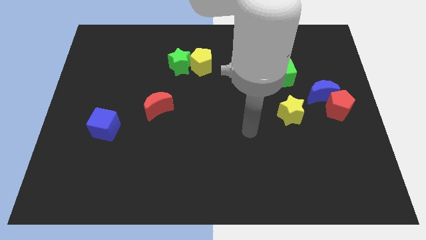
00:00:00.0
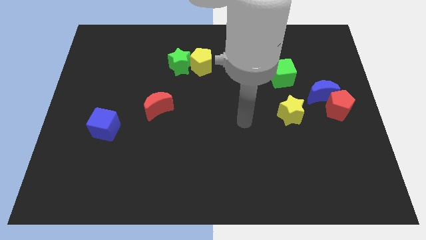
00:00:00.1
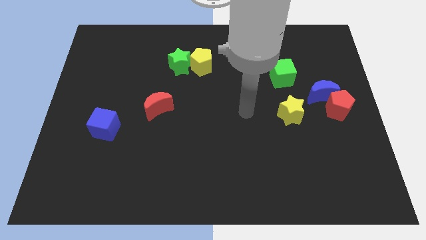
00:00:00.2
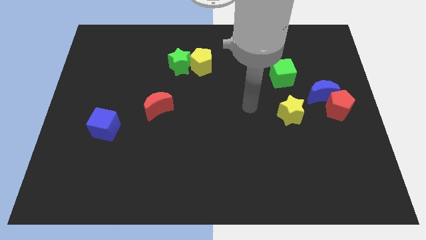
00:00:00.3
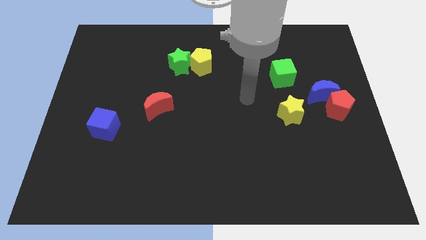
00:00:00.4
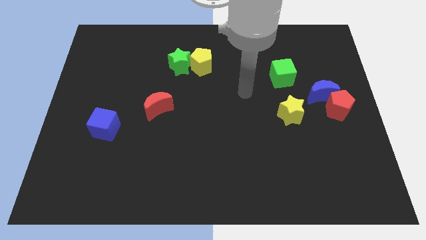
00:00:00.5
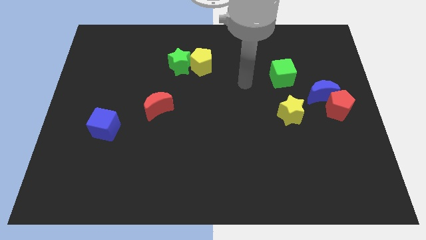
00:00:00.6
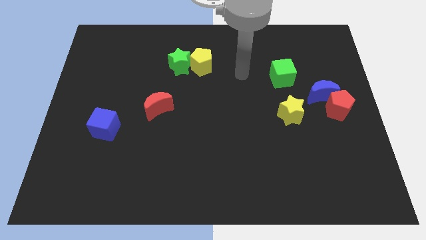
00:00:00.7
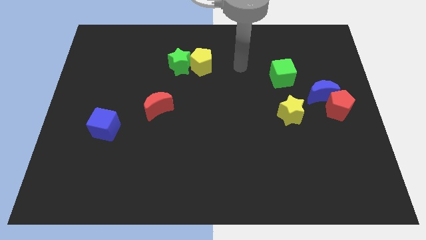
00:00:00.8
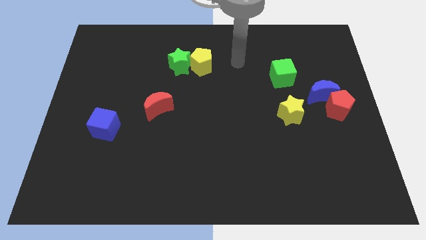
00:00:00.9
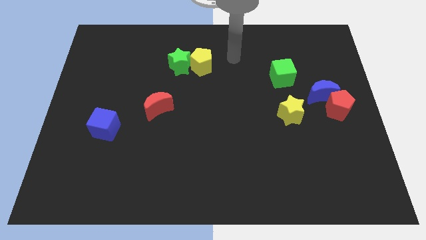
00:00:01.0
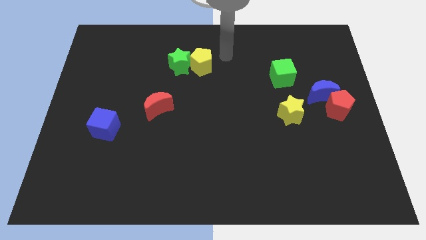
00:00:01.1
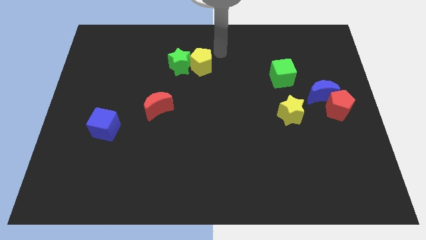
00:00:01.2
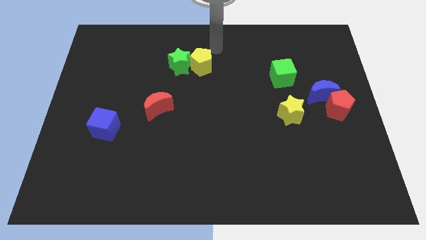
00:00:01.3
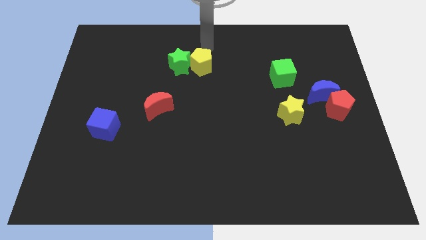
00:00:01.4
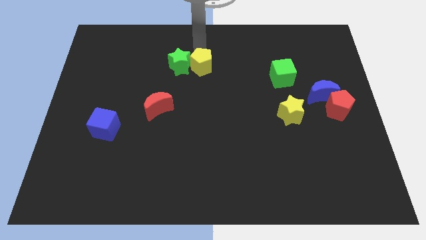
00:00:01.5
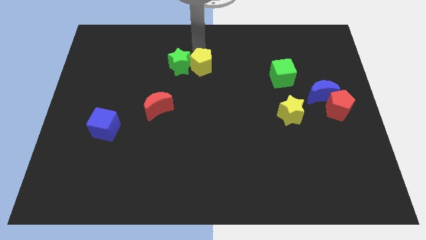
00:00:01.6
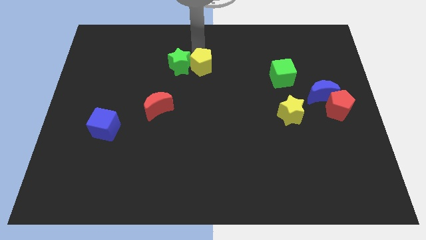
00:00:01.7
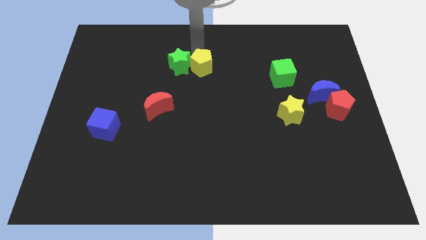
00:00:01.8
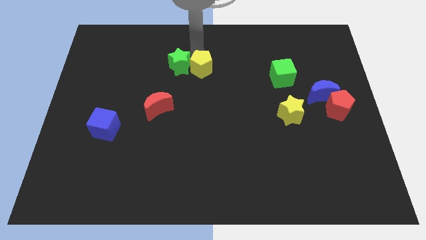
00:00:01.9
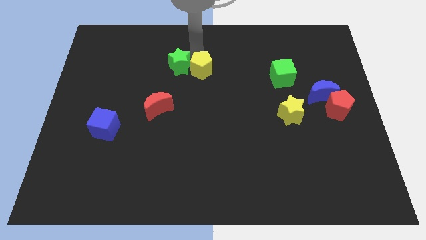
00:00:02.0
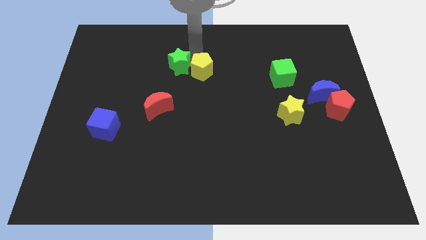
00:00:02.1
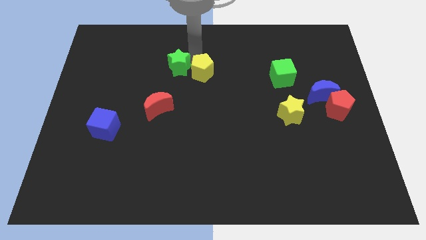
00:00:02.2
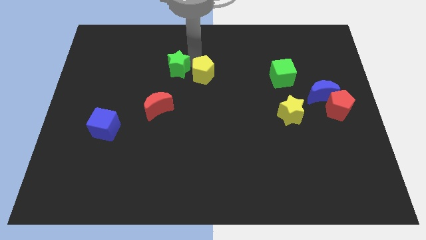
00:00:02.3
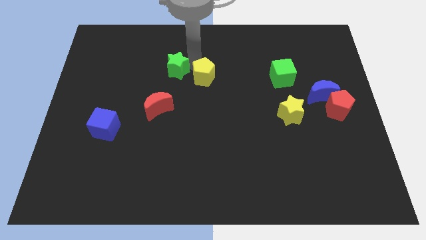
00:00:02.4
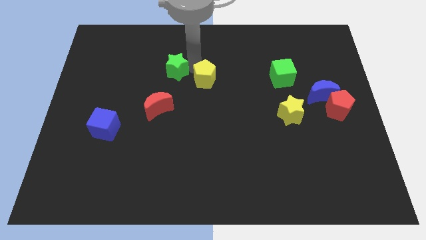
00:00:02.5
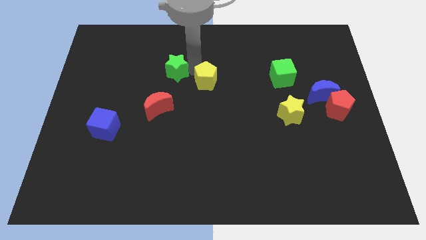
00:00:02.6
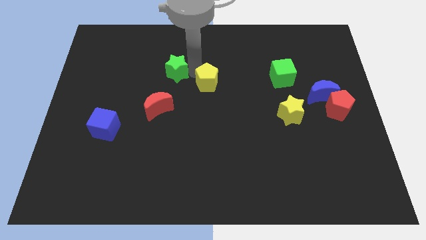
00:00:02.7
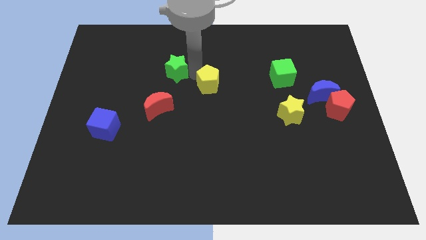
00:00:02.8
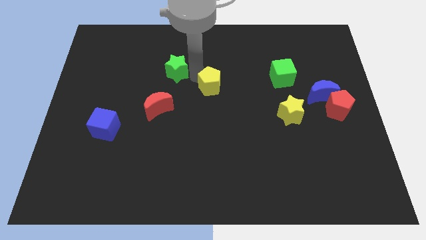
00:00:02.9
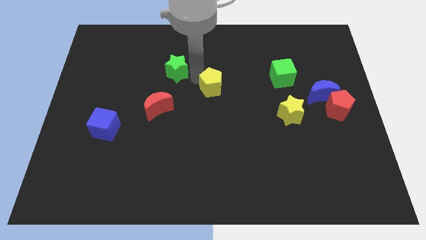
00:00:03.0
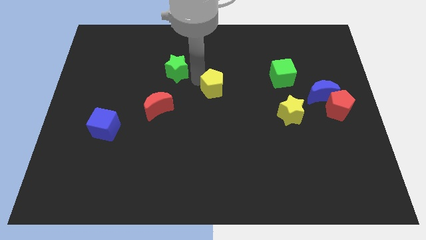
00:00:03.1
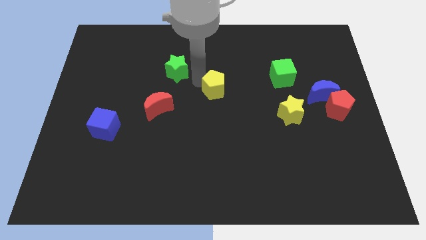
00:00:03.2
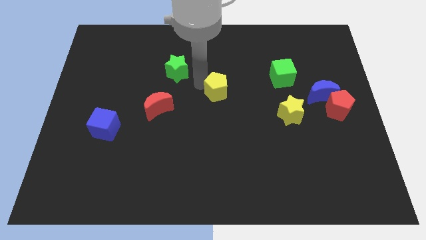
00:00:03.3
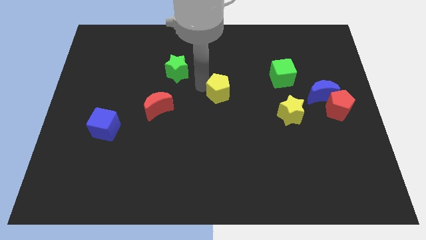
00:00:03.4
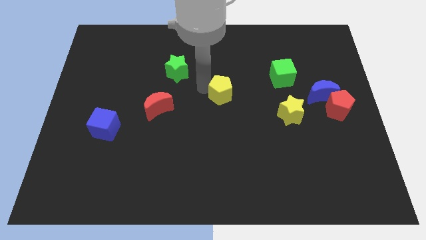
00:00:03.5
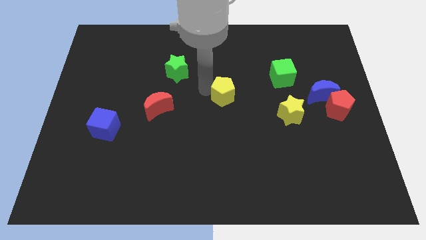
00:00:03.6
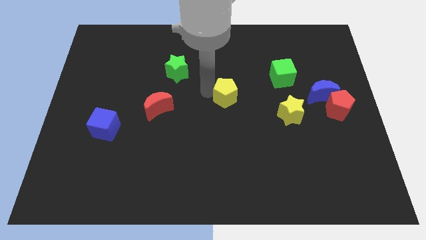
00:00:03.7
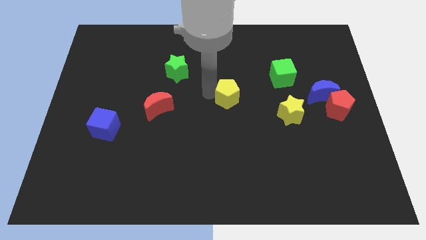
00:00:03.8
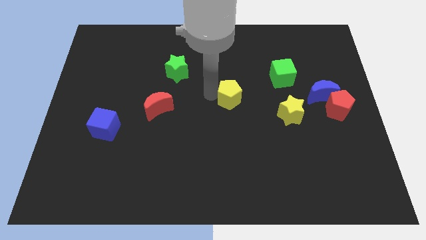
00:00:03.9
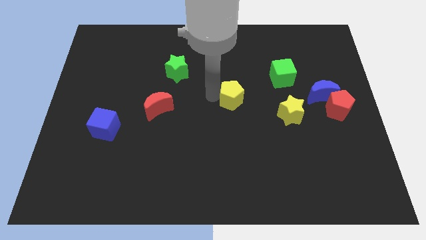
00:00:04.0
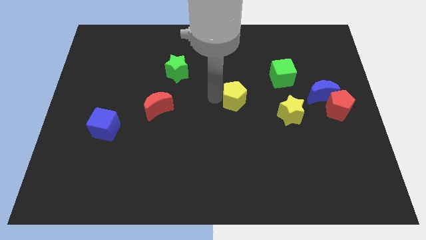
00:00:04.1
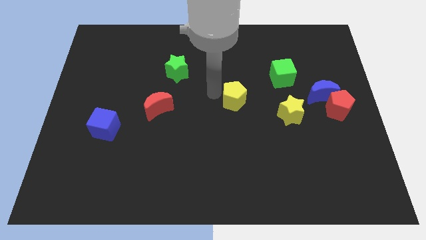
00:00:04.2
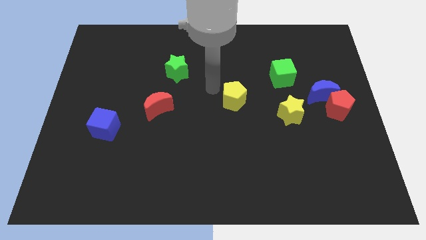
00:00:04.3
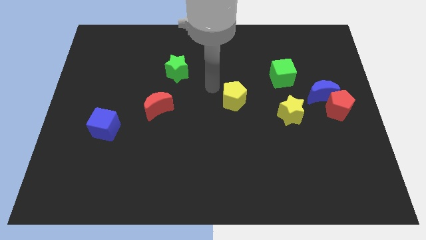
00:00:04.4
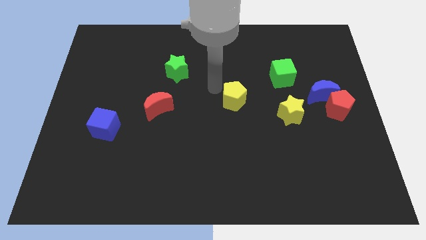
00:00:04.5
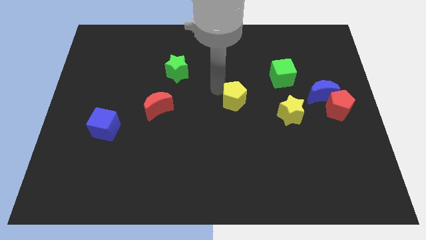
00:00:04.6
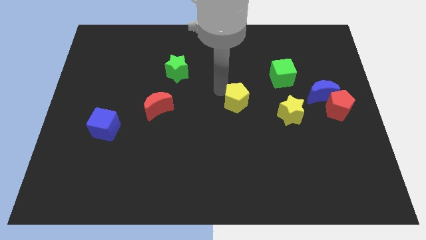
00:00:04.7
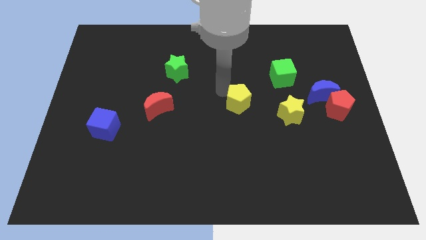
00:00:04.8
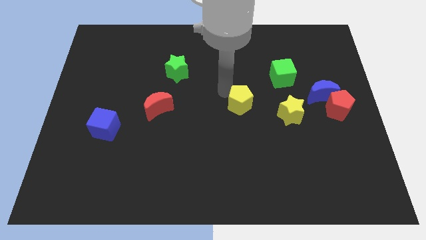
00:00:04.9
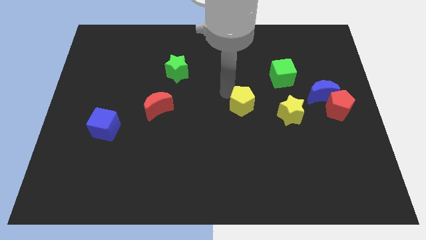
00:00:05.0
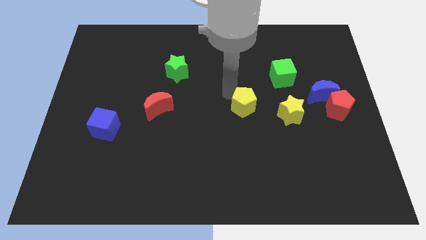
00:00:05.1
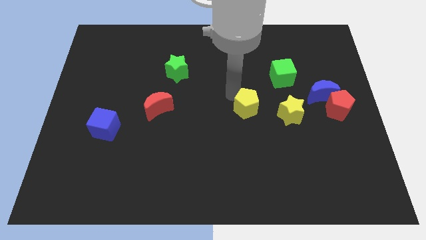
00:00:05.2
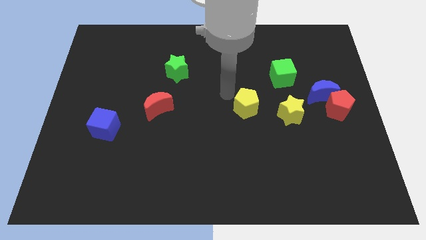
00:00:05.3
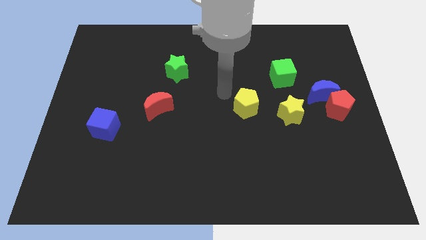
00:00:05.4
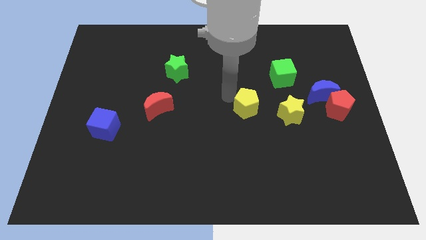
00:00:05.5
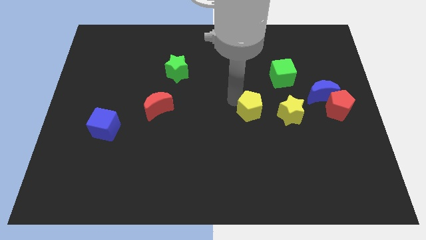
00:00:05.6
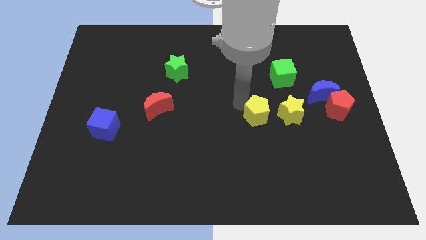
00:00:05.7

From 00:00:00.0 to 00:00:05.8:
slide the yellow pentagon downwards and right

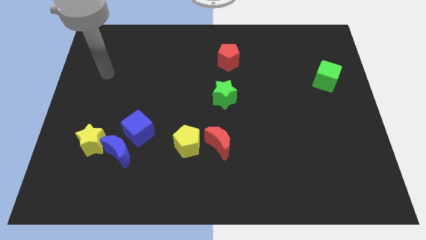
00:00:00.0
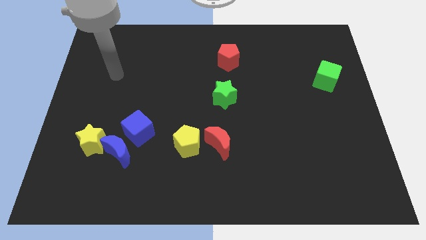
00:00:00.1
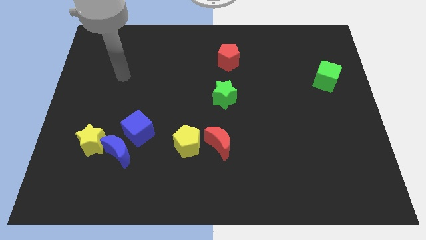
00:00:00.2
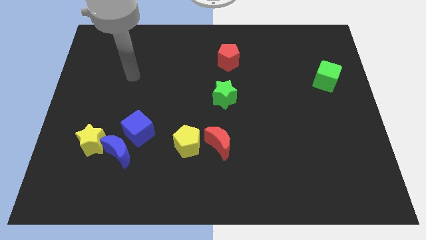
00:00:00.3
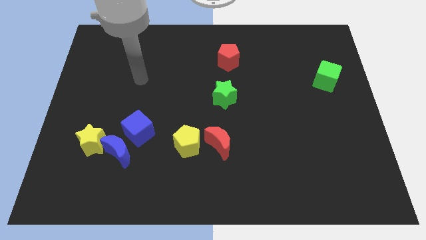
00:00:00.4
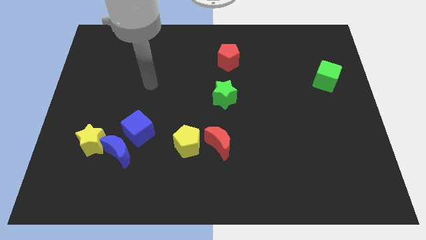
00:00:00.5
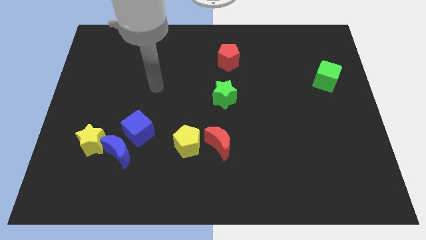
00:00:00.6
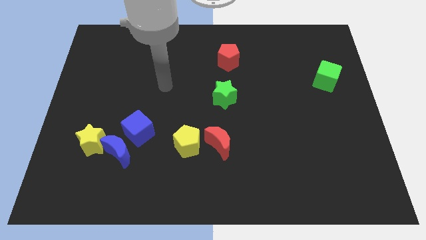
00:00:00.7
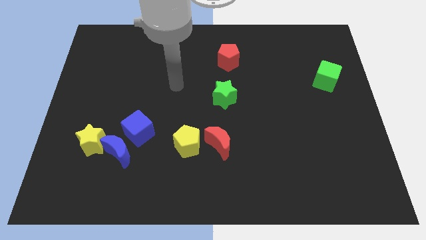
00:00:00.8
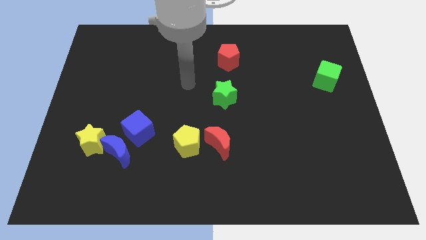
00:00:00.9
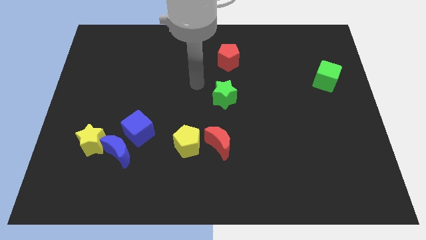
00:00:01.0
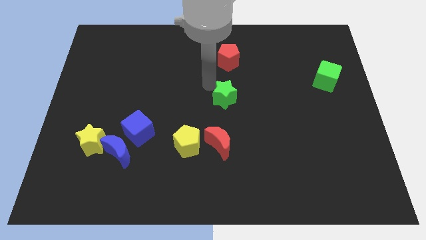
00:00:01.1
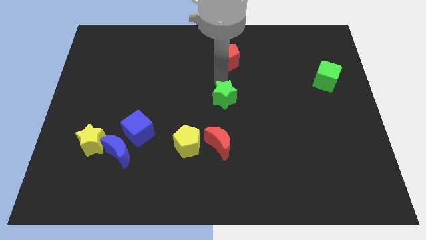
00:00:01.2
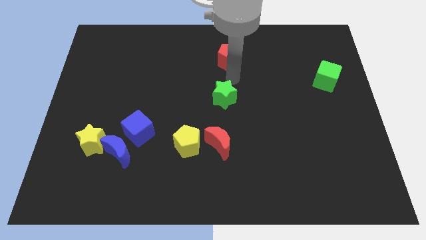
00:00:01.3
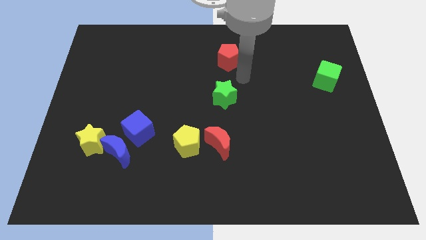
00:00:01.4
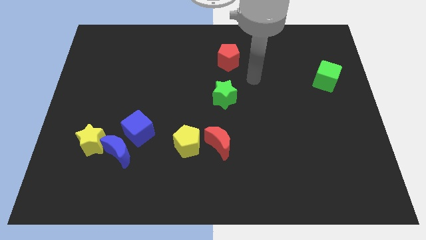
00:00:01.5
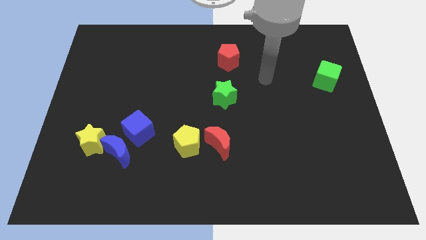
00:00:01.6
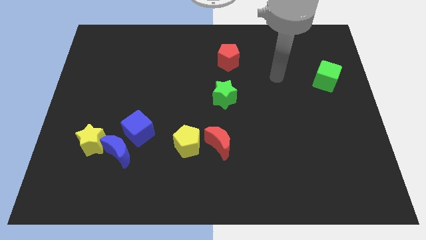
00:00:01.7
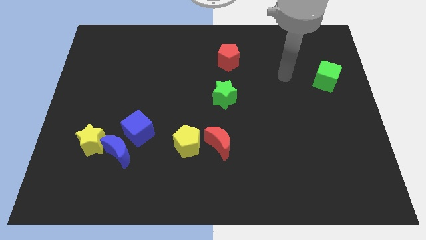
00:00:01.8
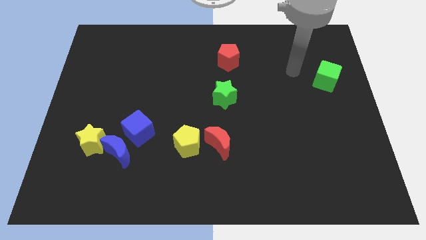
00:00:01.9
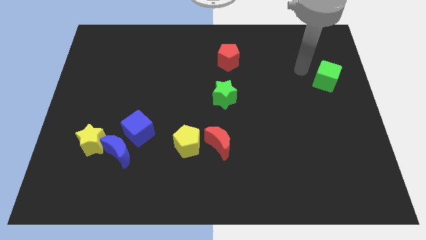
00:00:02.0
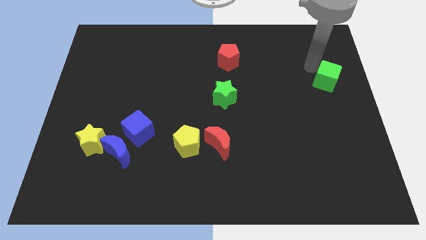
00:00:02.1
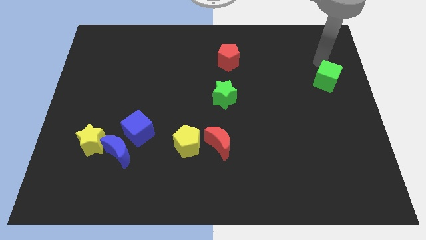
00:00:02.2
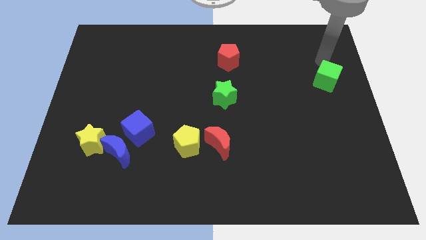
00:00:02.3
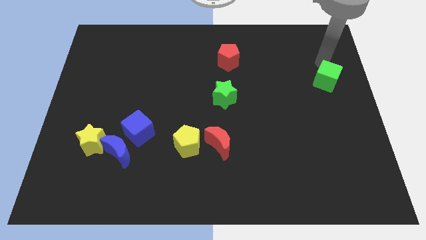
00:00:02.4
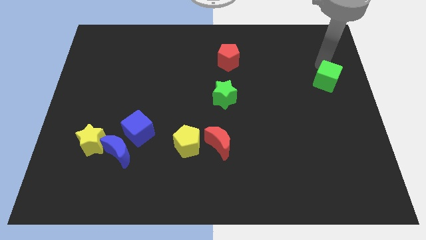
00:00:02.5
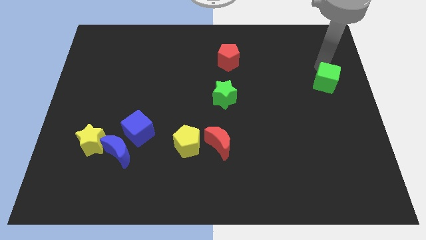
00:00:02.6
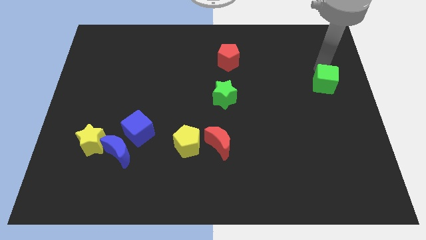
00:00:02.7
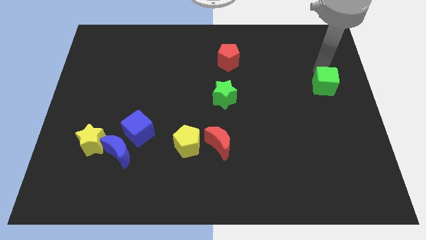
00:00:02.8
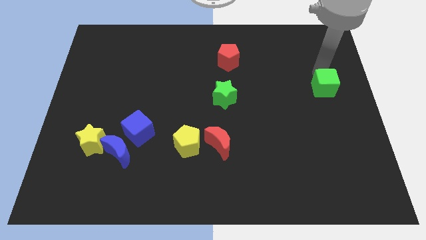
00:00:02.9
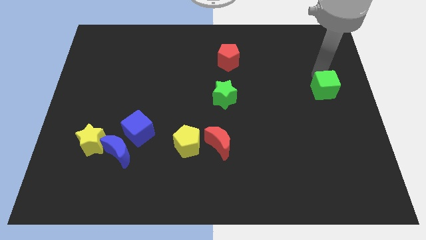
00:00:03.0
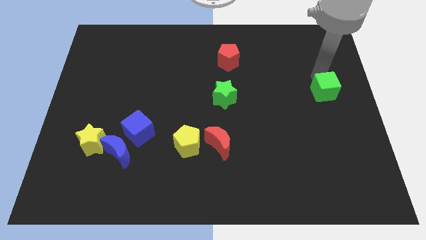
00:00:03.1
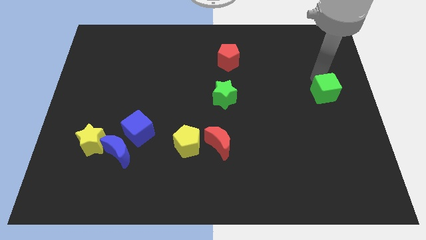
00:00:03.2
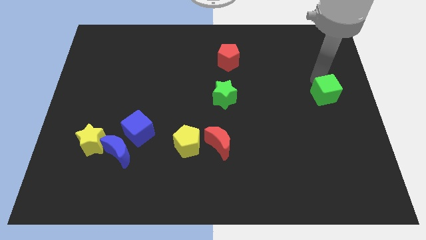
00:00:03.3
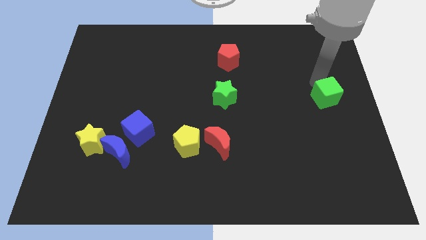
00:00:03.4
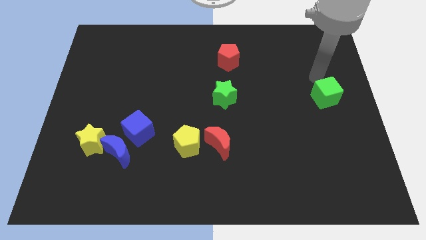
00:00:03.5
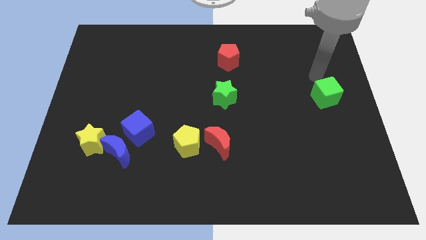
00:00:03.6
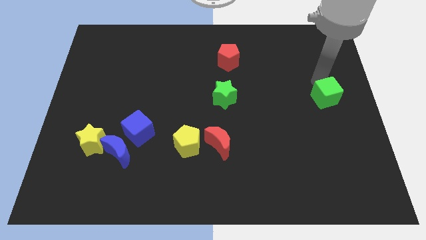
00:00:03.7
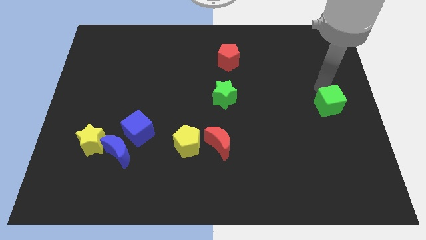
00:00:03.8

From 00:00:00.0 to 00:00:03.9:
move the green cube a little bit downwards
